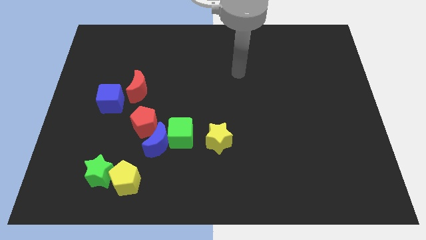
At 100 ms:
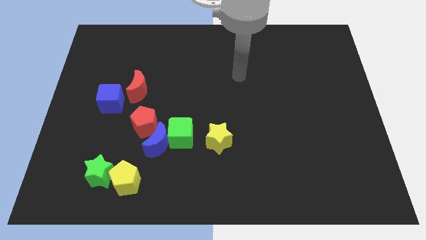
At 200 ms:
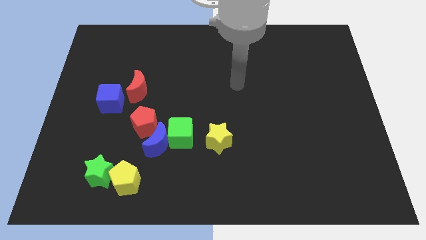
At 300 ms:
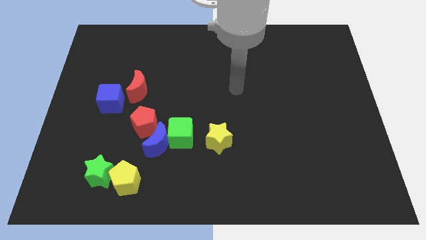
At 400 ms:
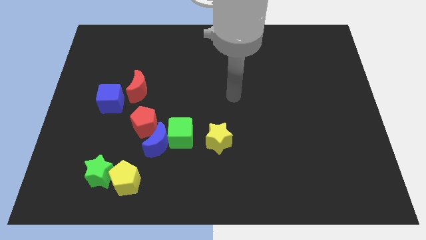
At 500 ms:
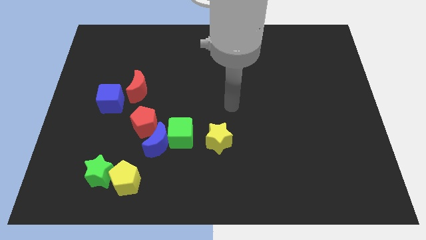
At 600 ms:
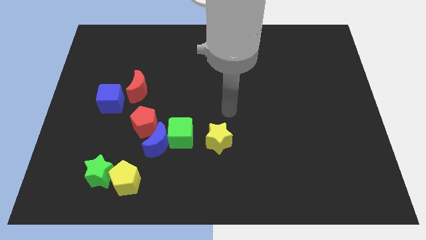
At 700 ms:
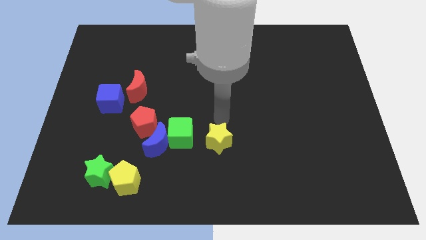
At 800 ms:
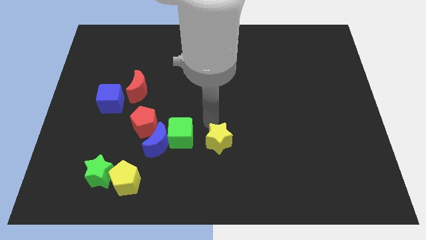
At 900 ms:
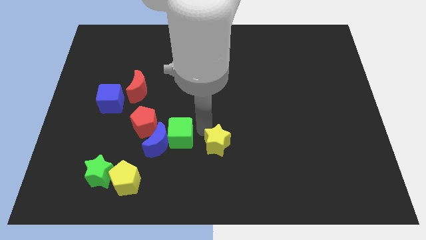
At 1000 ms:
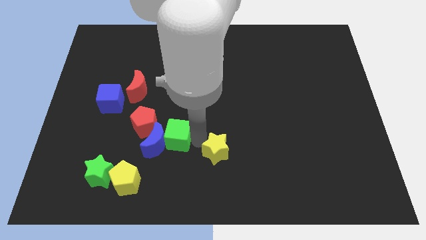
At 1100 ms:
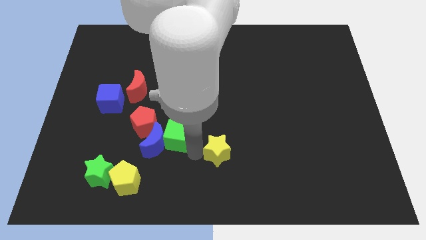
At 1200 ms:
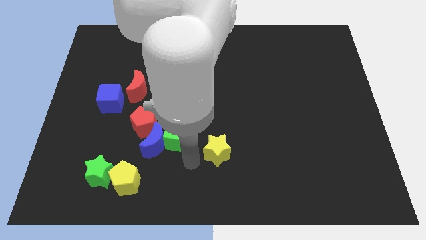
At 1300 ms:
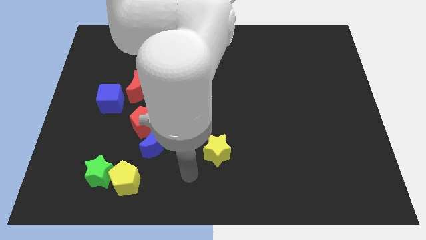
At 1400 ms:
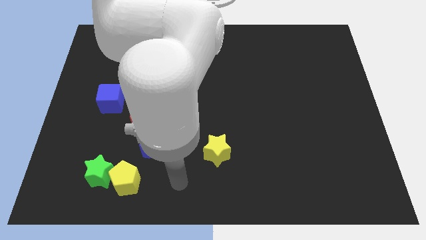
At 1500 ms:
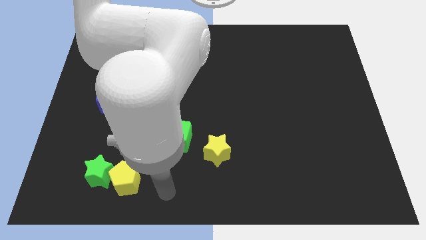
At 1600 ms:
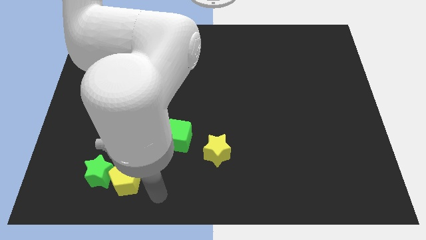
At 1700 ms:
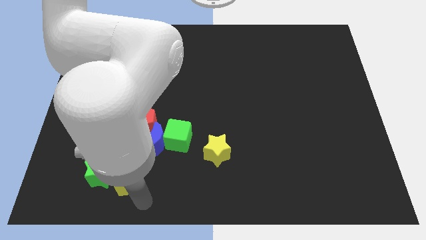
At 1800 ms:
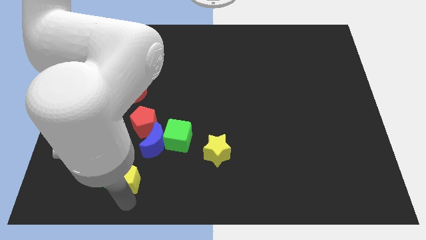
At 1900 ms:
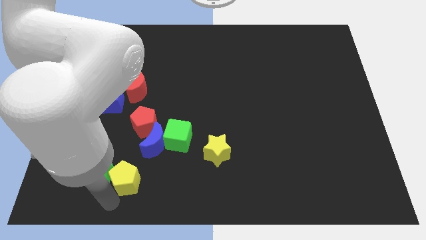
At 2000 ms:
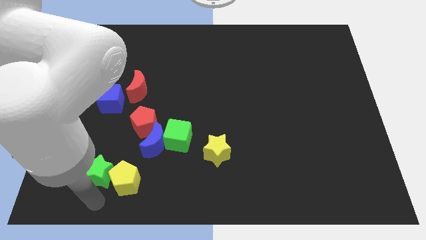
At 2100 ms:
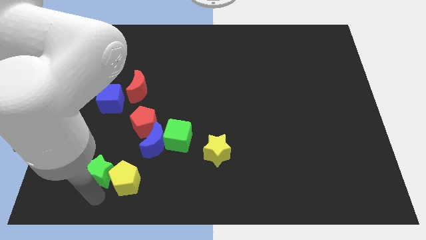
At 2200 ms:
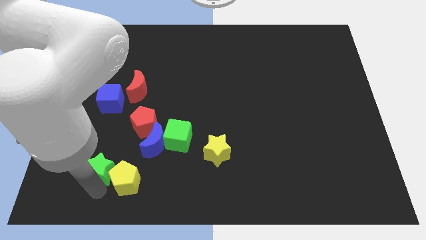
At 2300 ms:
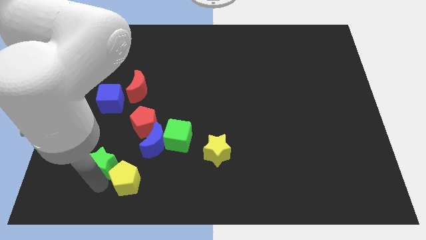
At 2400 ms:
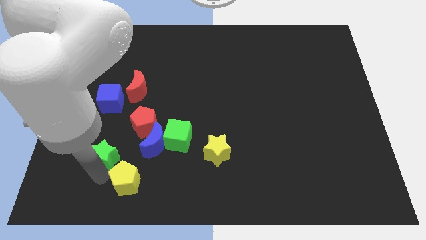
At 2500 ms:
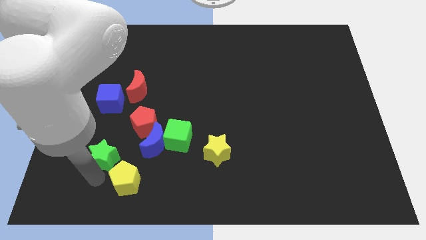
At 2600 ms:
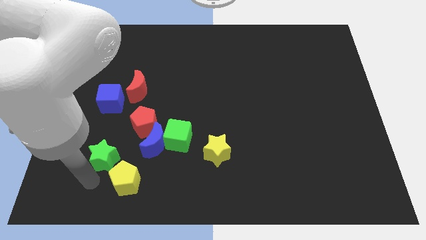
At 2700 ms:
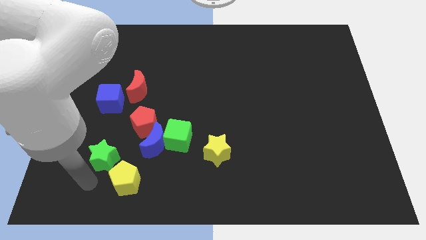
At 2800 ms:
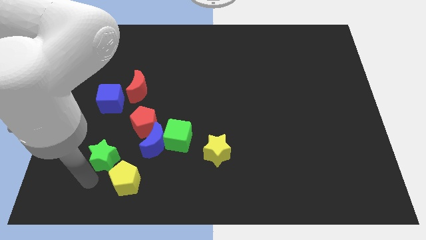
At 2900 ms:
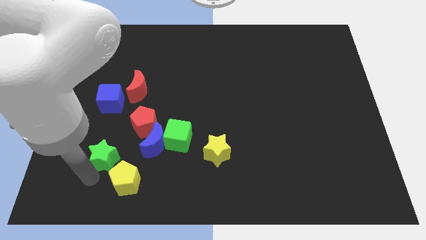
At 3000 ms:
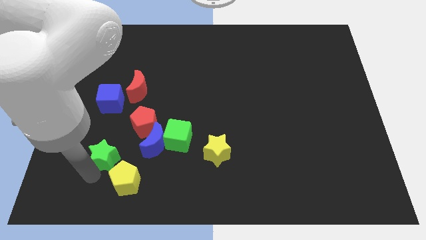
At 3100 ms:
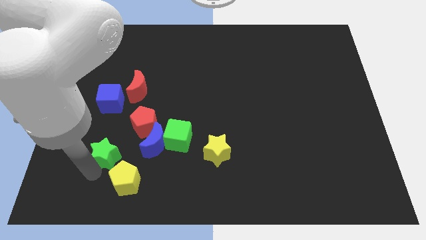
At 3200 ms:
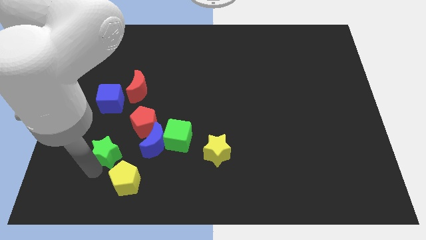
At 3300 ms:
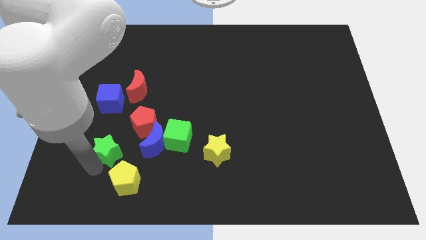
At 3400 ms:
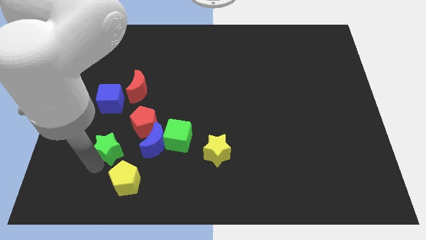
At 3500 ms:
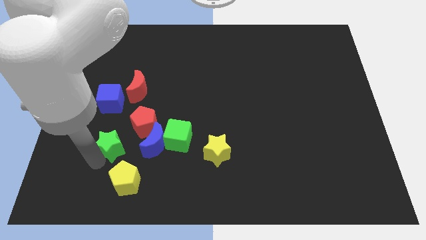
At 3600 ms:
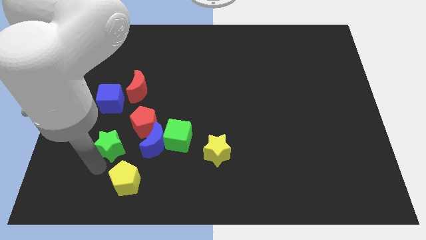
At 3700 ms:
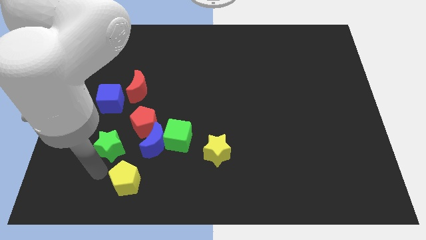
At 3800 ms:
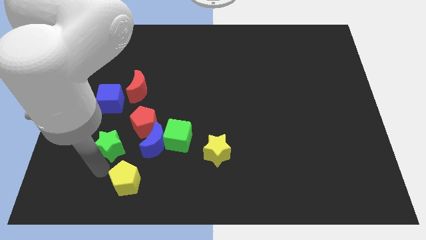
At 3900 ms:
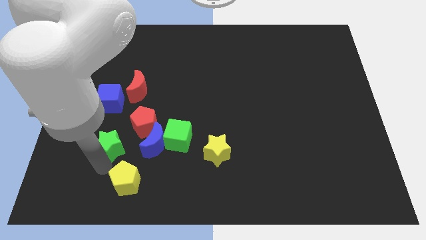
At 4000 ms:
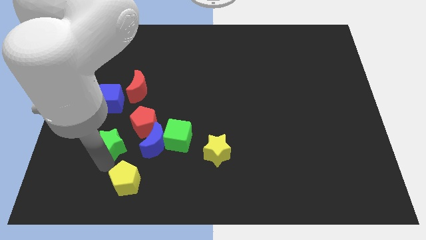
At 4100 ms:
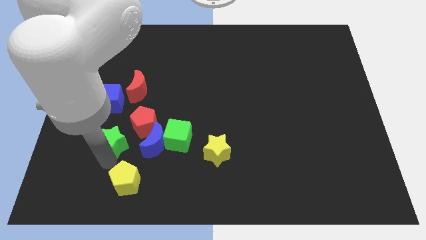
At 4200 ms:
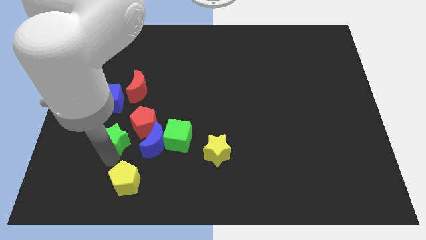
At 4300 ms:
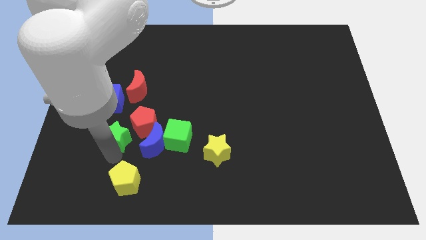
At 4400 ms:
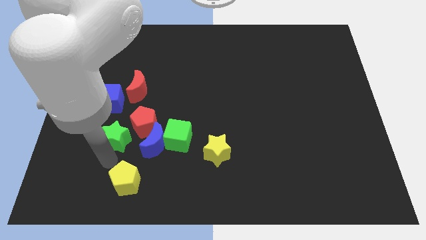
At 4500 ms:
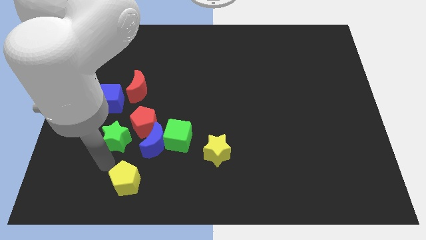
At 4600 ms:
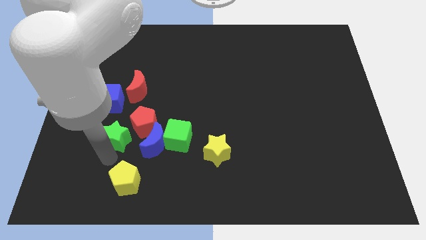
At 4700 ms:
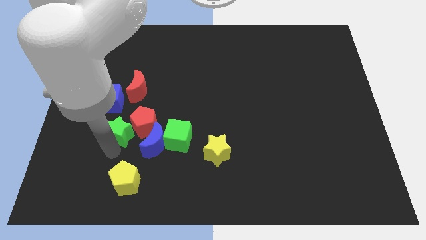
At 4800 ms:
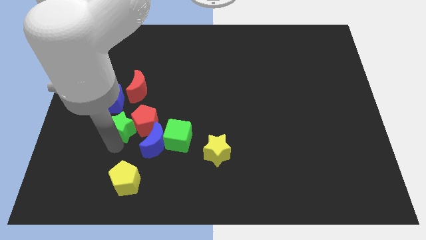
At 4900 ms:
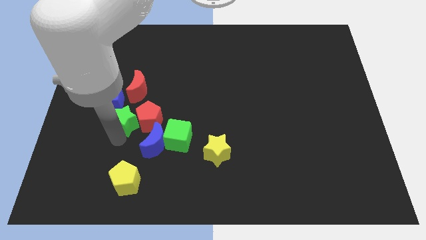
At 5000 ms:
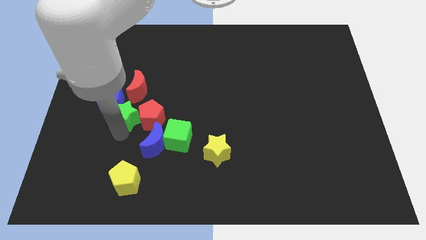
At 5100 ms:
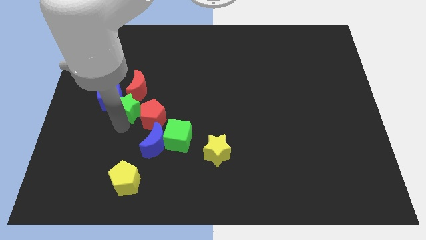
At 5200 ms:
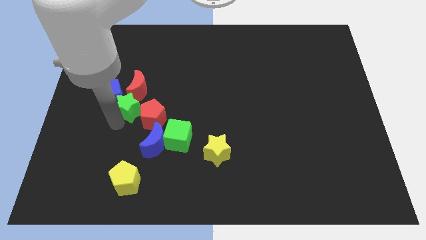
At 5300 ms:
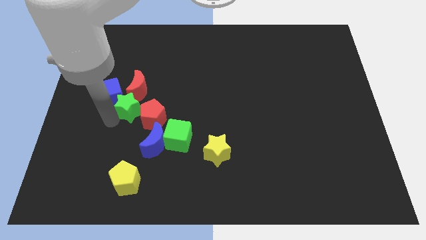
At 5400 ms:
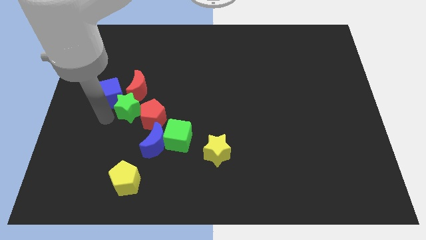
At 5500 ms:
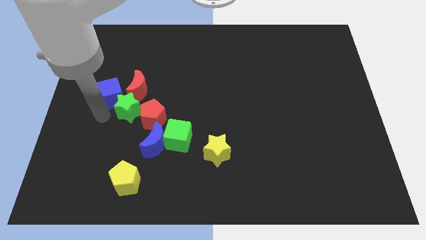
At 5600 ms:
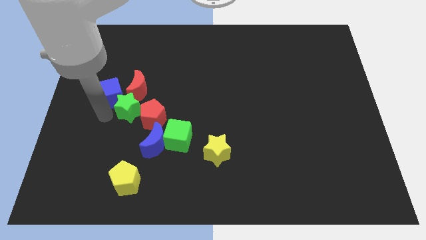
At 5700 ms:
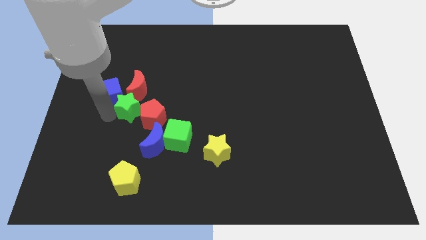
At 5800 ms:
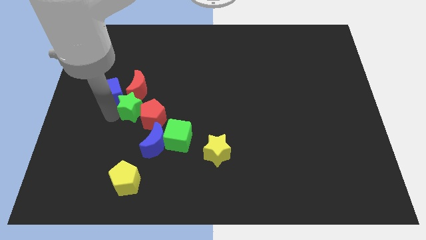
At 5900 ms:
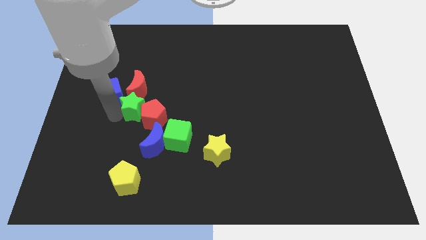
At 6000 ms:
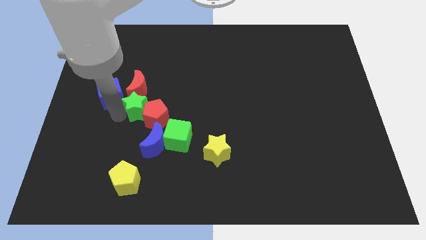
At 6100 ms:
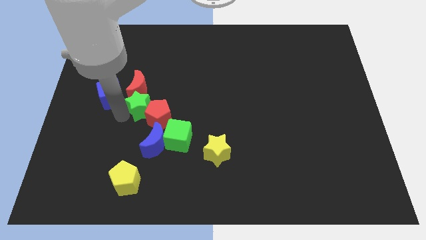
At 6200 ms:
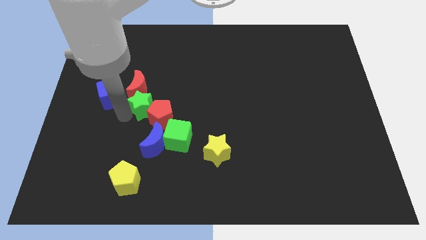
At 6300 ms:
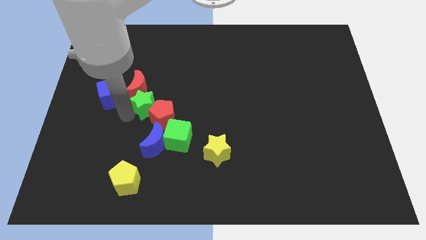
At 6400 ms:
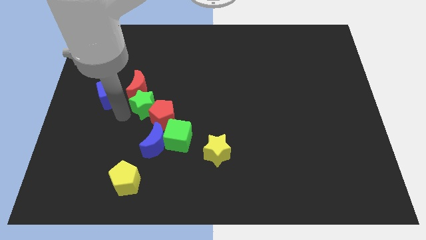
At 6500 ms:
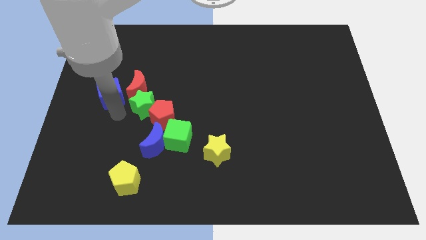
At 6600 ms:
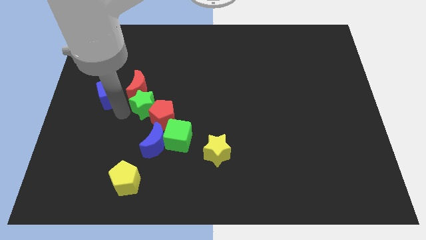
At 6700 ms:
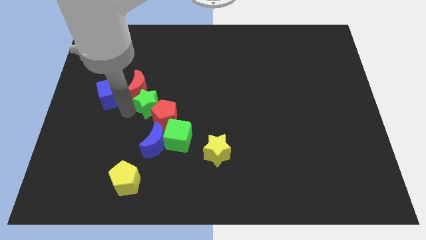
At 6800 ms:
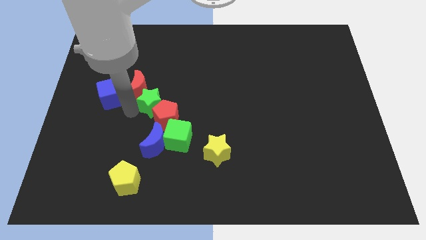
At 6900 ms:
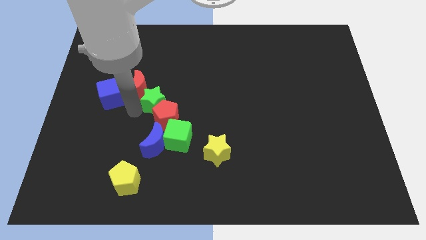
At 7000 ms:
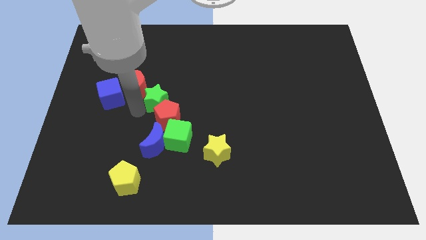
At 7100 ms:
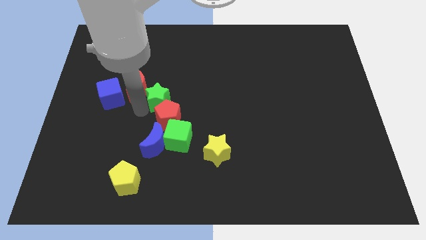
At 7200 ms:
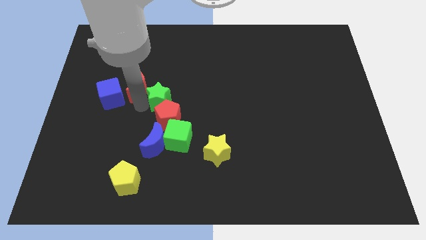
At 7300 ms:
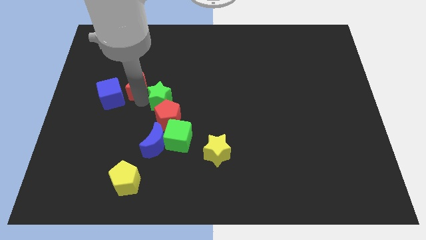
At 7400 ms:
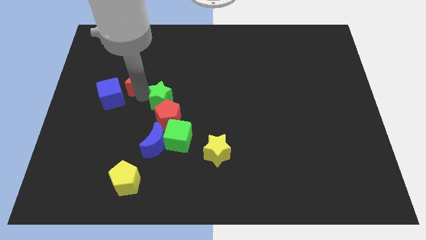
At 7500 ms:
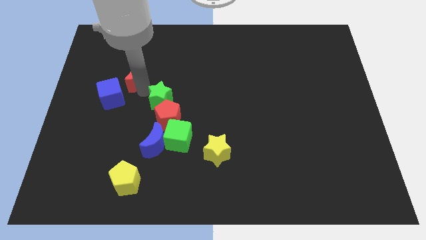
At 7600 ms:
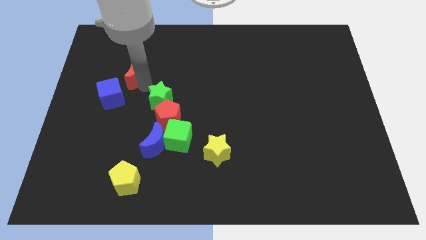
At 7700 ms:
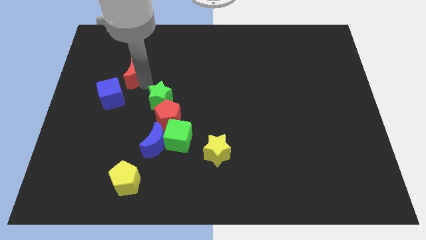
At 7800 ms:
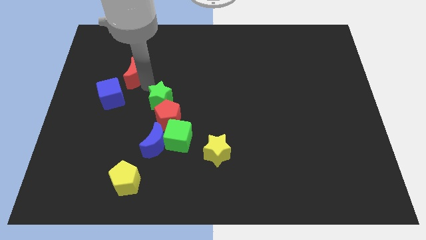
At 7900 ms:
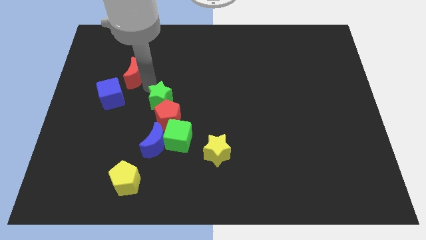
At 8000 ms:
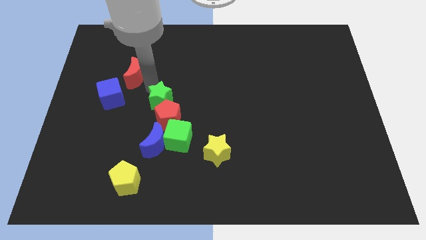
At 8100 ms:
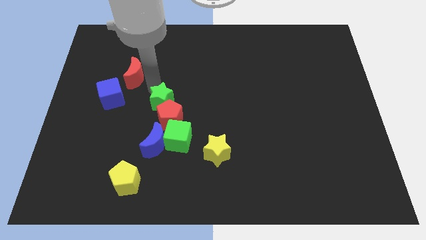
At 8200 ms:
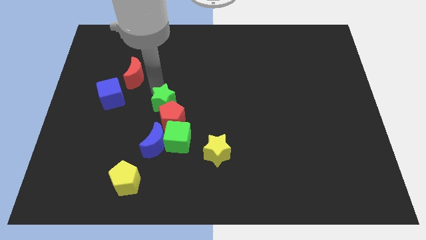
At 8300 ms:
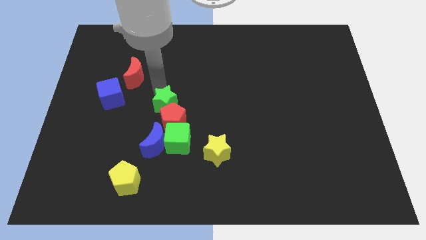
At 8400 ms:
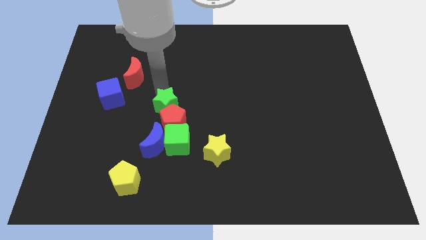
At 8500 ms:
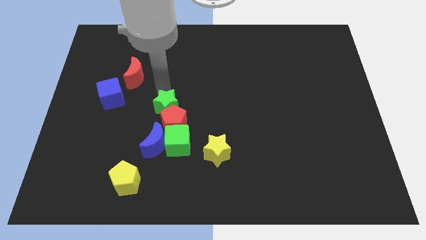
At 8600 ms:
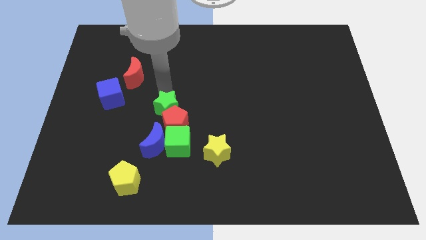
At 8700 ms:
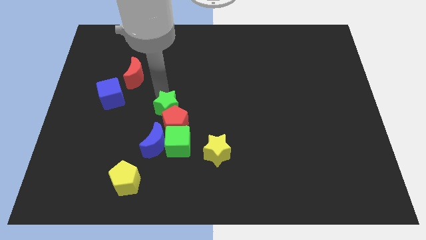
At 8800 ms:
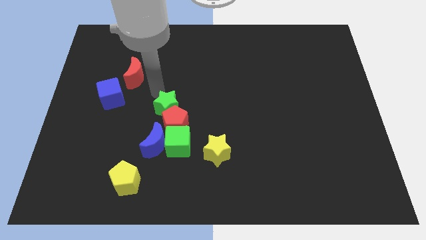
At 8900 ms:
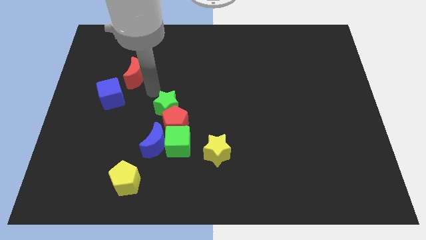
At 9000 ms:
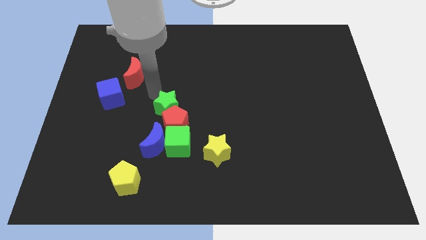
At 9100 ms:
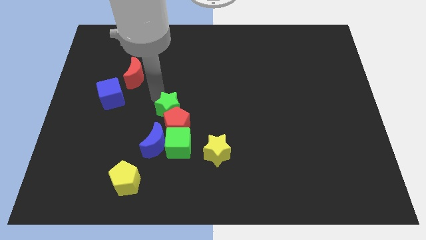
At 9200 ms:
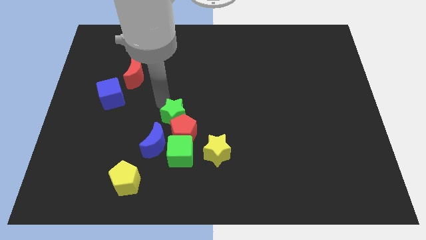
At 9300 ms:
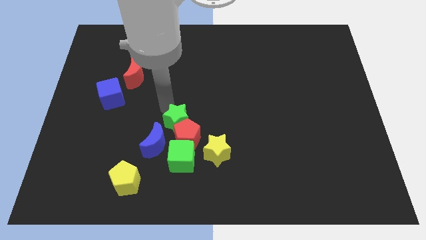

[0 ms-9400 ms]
move the green star to the top left side of the yellow star
